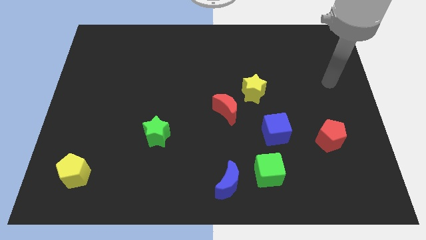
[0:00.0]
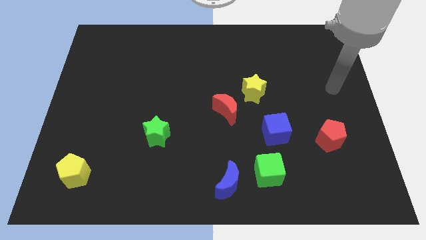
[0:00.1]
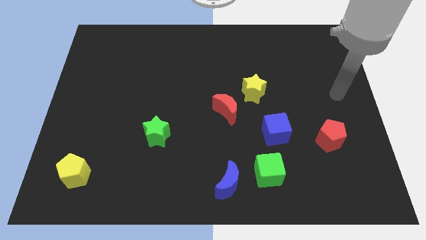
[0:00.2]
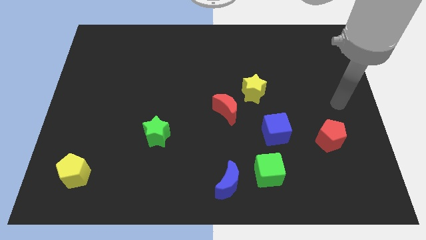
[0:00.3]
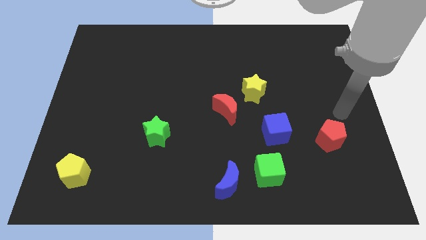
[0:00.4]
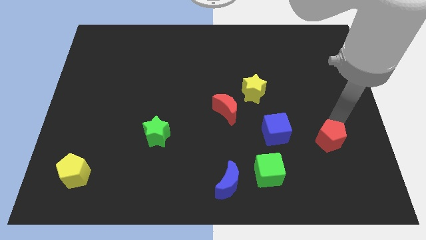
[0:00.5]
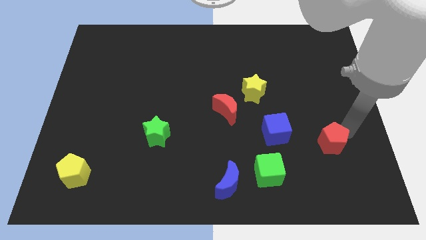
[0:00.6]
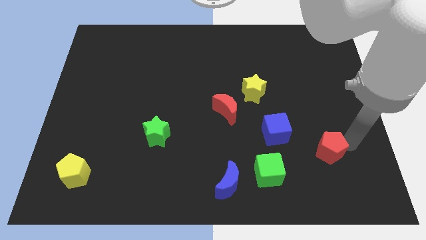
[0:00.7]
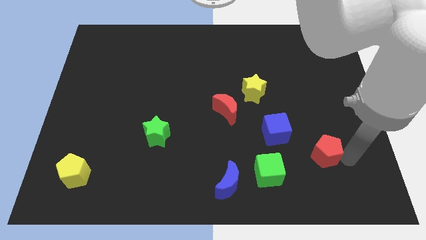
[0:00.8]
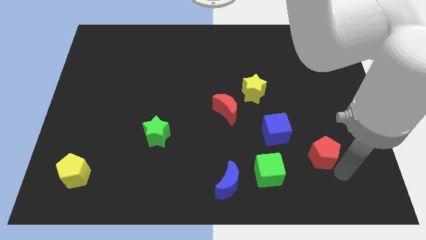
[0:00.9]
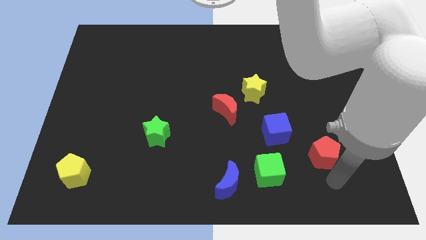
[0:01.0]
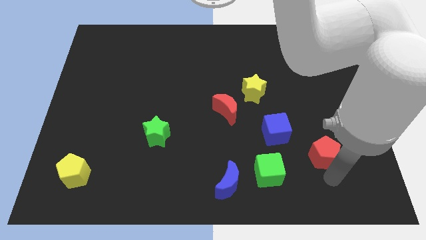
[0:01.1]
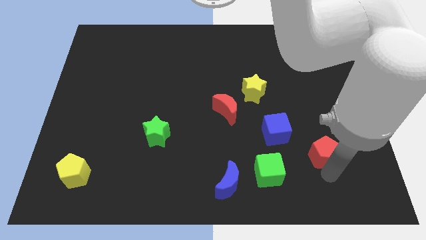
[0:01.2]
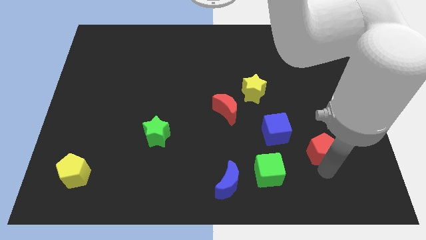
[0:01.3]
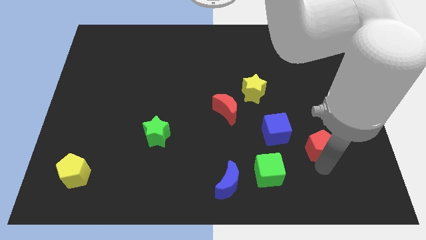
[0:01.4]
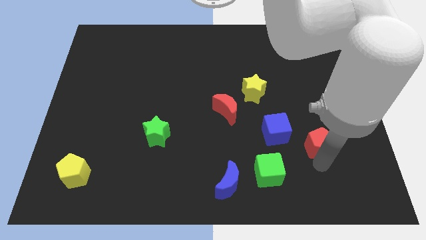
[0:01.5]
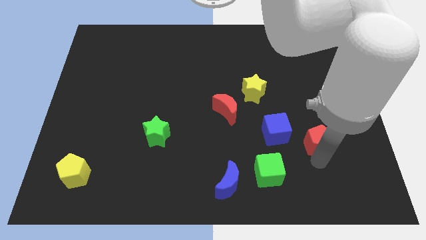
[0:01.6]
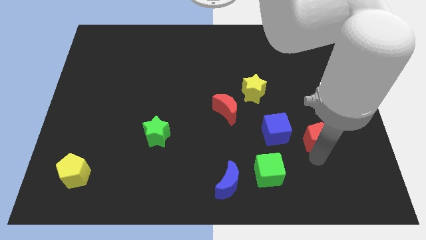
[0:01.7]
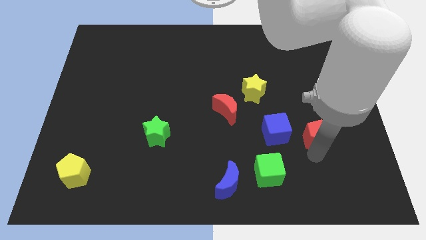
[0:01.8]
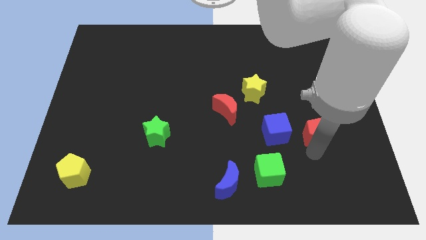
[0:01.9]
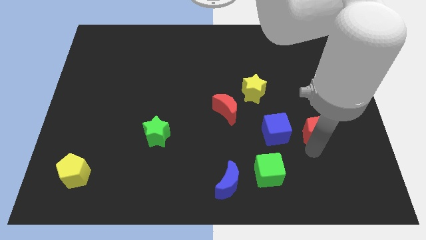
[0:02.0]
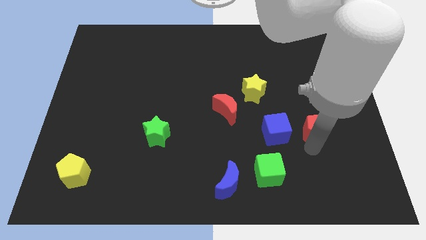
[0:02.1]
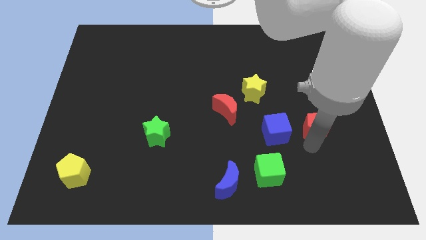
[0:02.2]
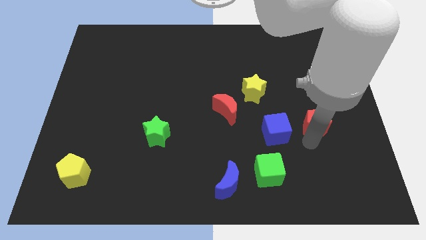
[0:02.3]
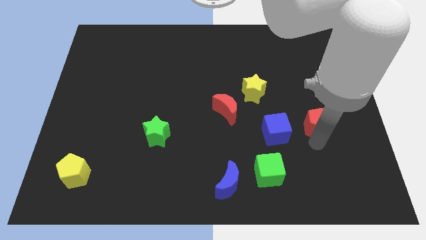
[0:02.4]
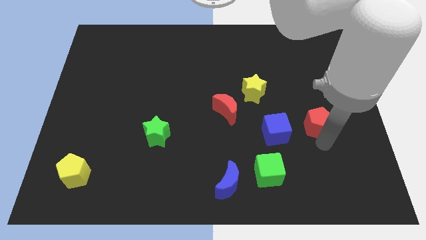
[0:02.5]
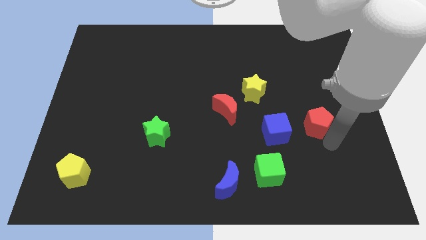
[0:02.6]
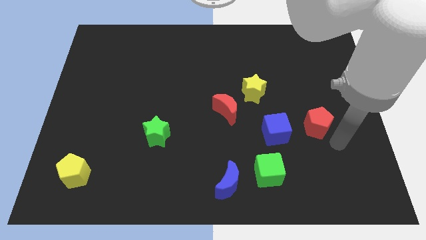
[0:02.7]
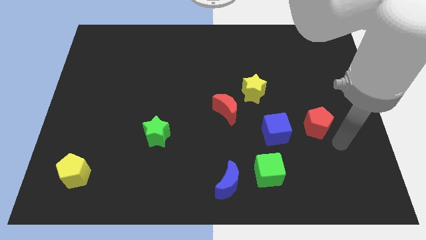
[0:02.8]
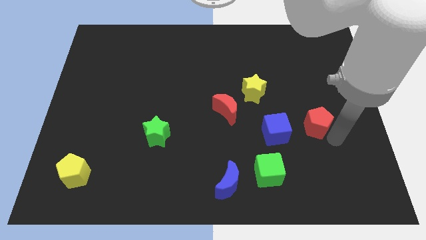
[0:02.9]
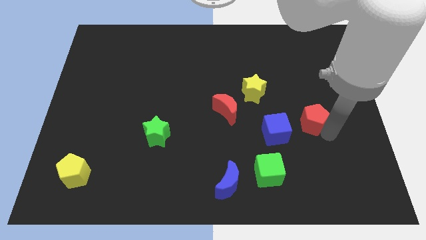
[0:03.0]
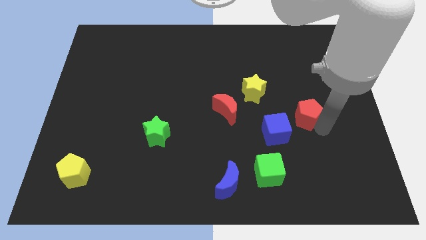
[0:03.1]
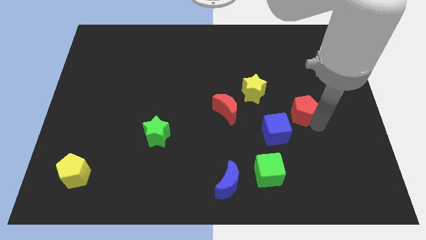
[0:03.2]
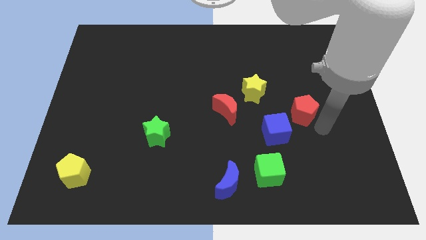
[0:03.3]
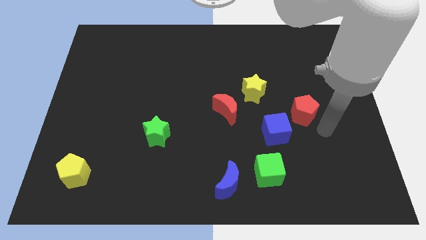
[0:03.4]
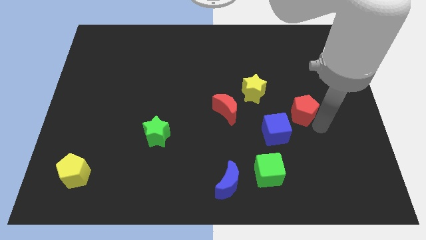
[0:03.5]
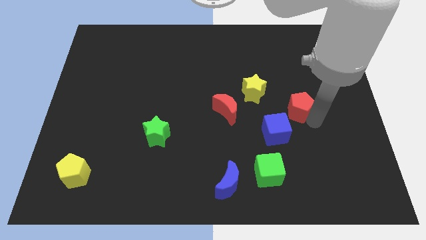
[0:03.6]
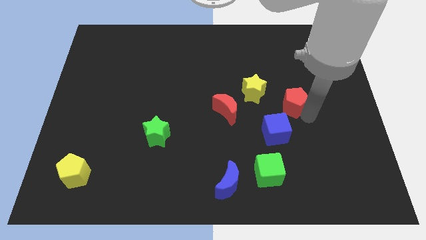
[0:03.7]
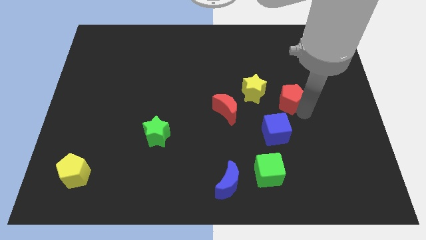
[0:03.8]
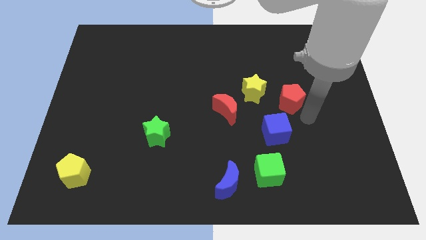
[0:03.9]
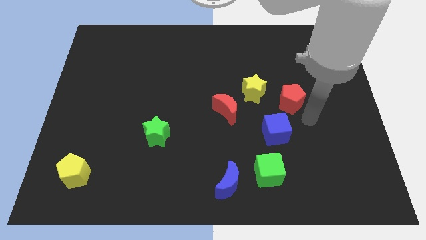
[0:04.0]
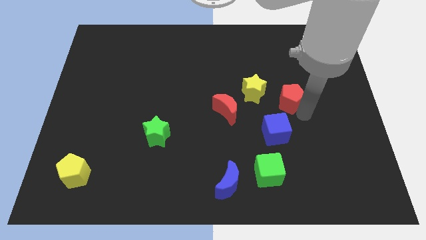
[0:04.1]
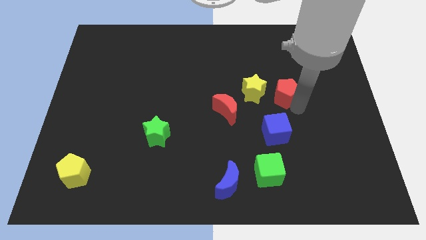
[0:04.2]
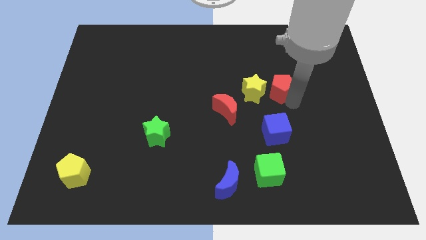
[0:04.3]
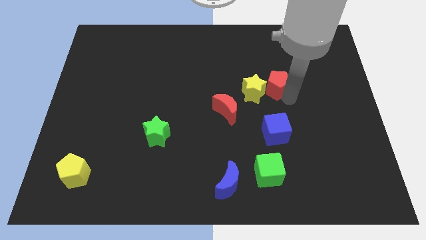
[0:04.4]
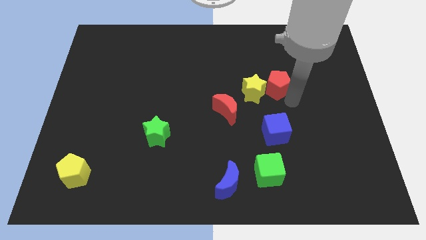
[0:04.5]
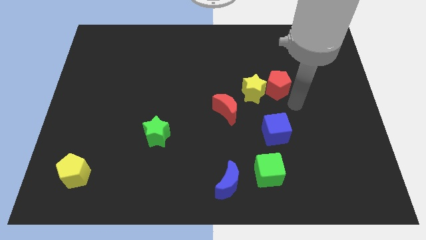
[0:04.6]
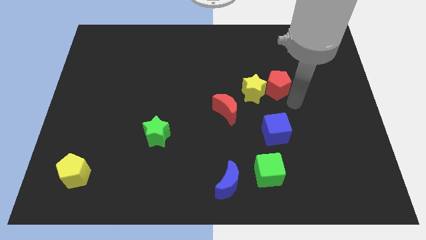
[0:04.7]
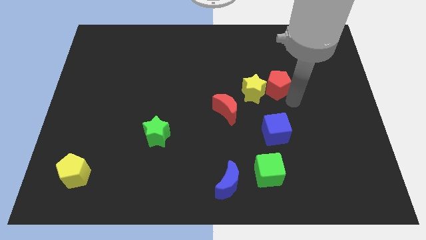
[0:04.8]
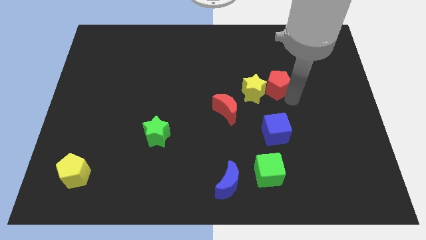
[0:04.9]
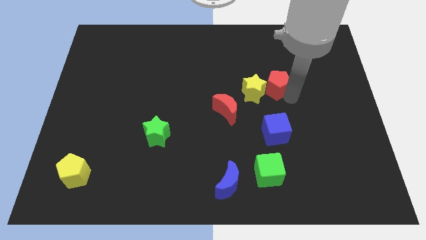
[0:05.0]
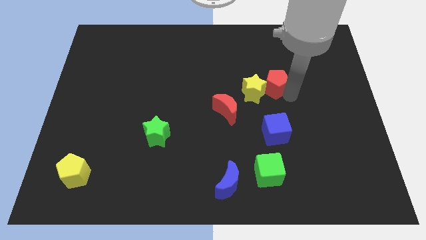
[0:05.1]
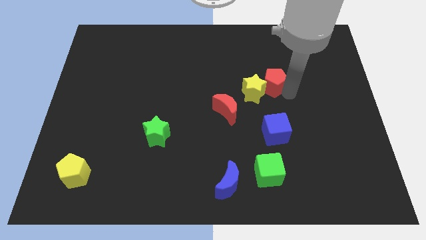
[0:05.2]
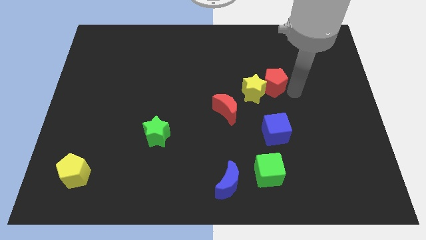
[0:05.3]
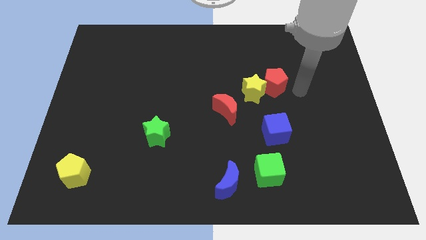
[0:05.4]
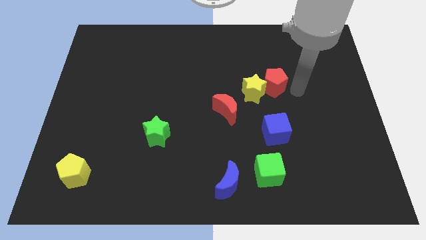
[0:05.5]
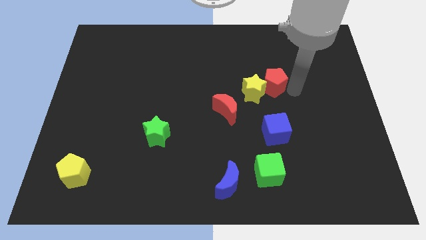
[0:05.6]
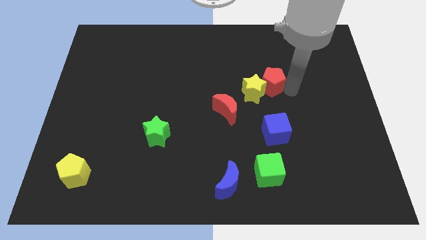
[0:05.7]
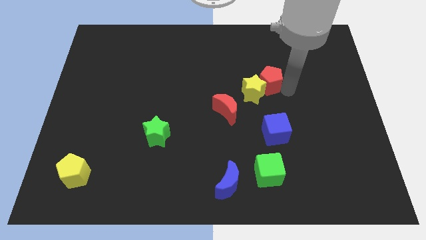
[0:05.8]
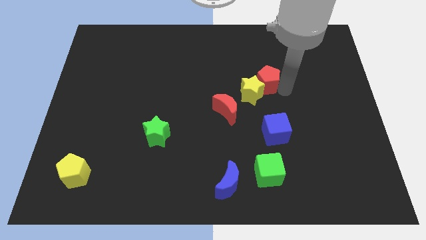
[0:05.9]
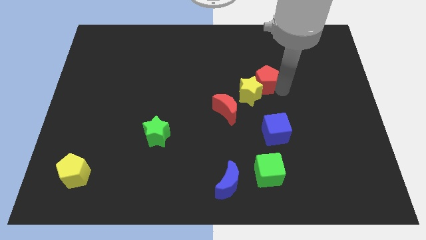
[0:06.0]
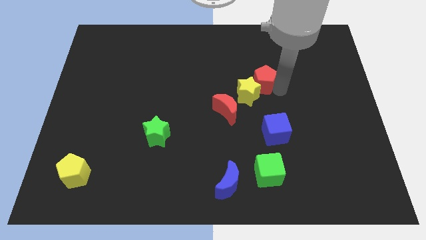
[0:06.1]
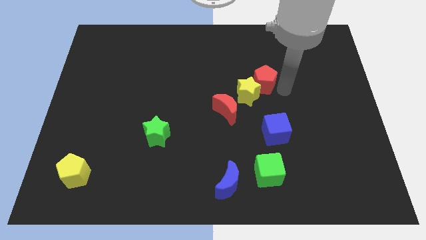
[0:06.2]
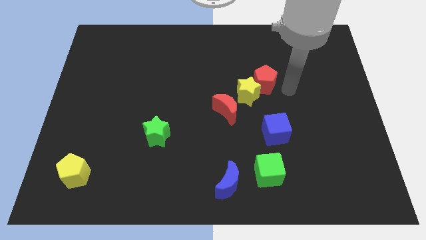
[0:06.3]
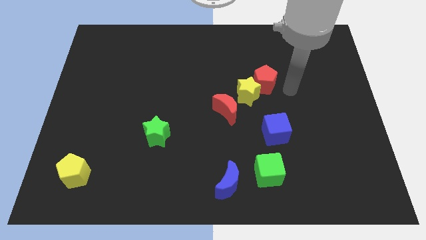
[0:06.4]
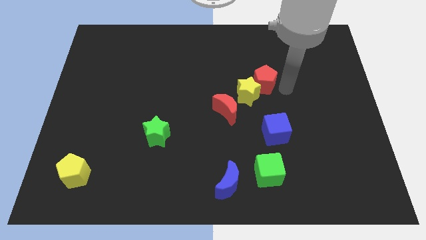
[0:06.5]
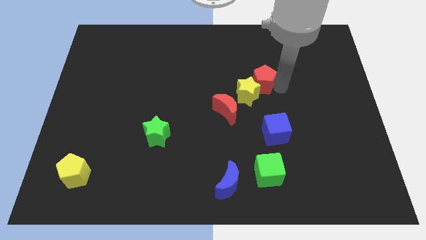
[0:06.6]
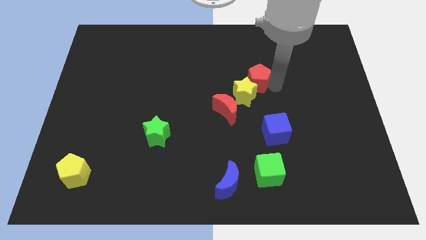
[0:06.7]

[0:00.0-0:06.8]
move the red pentagon to the middle
